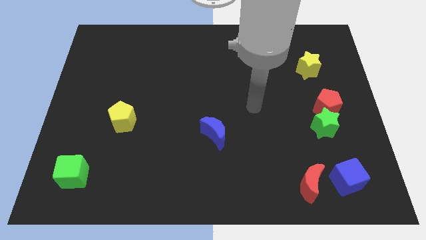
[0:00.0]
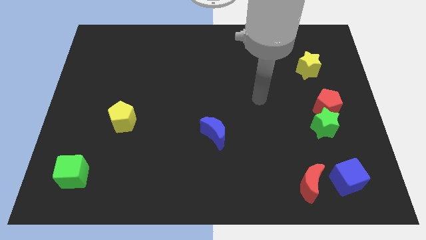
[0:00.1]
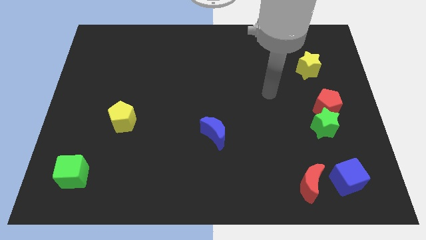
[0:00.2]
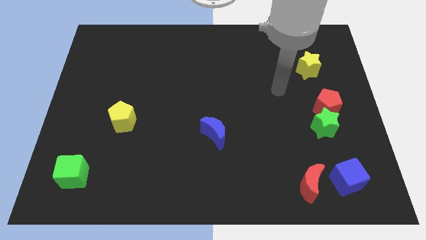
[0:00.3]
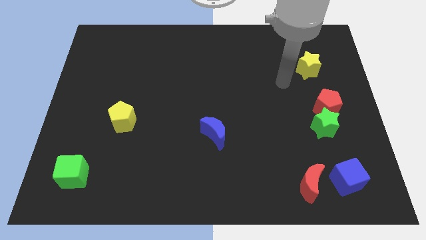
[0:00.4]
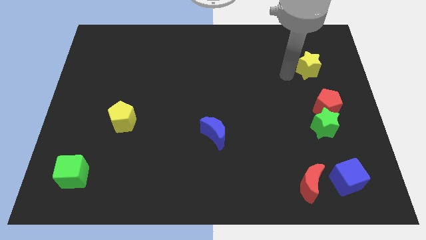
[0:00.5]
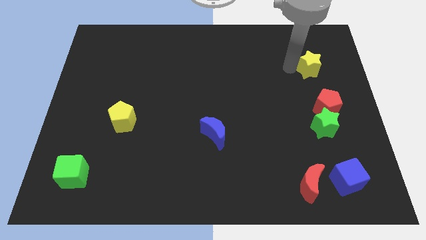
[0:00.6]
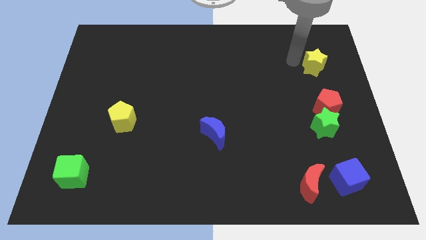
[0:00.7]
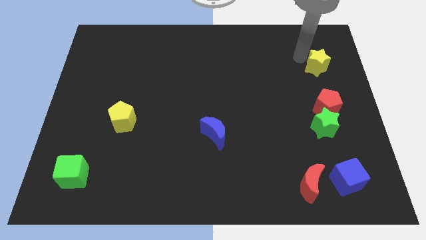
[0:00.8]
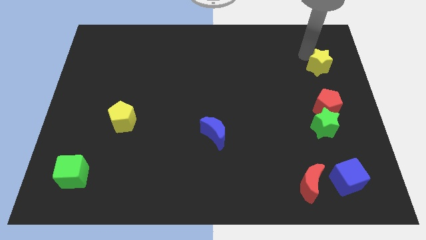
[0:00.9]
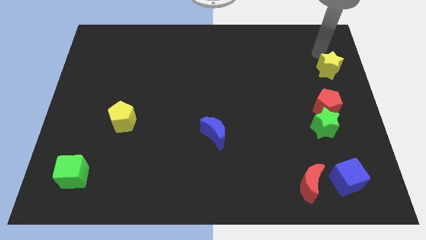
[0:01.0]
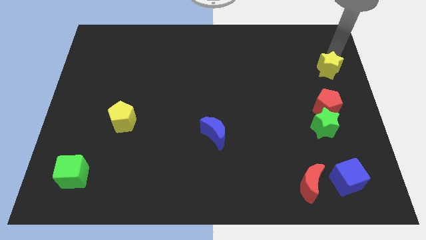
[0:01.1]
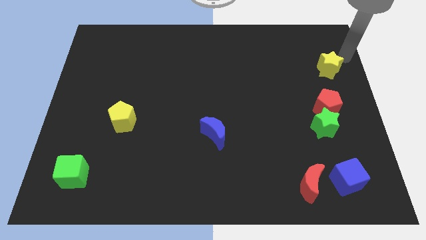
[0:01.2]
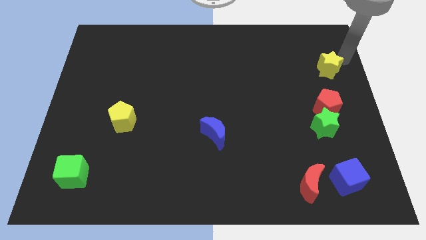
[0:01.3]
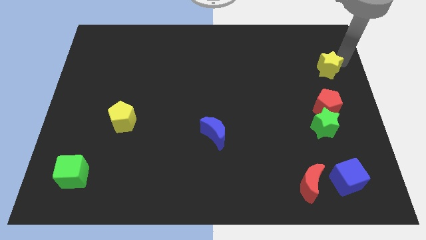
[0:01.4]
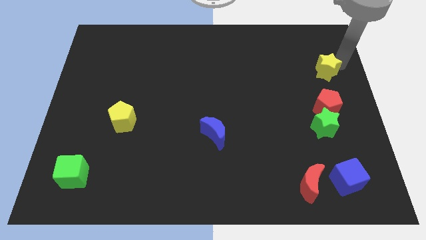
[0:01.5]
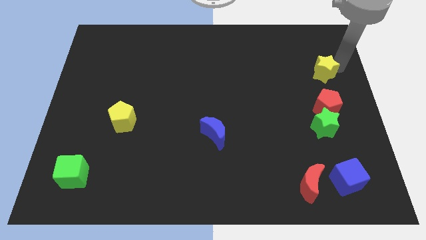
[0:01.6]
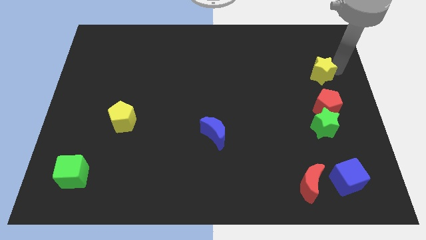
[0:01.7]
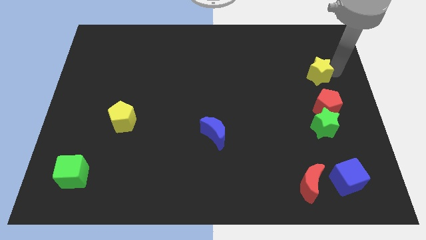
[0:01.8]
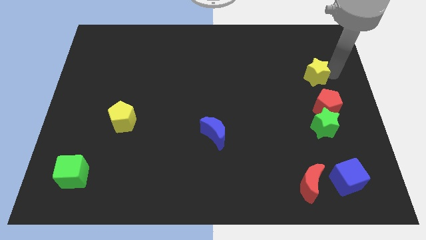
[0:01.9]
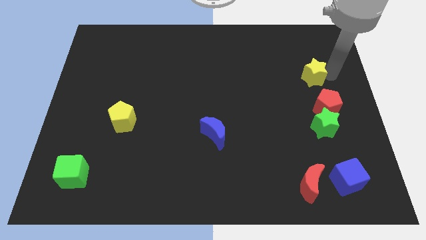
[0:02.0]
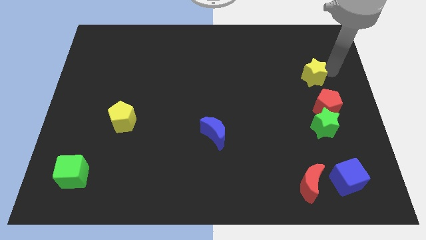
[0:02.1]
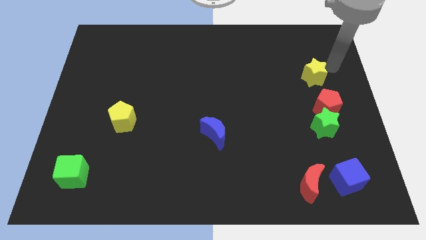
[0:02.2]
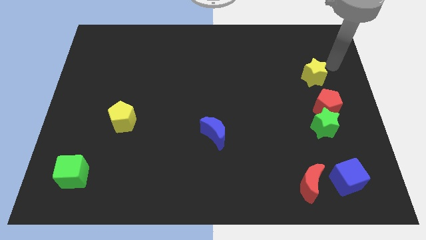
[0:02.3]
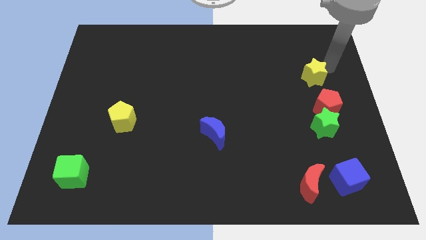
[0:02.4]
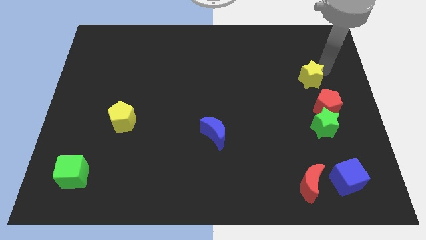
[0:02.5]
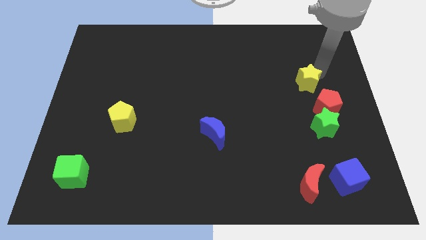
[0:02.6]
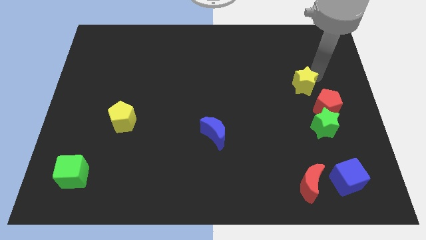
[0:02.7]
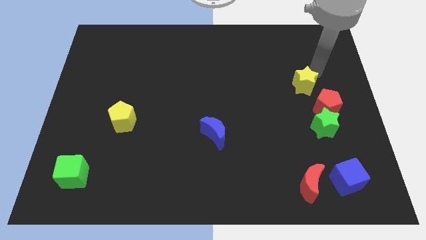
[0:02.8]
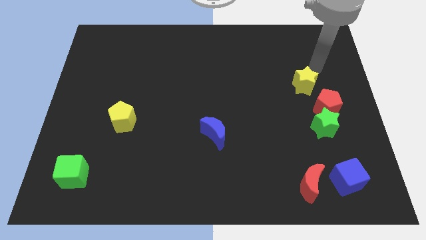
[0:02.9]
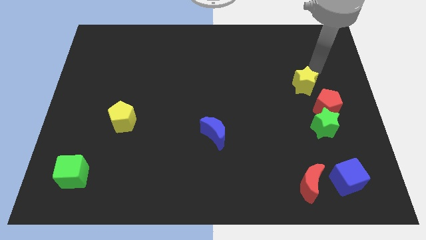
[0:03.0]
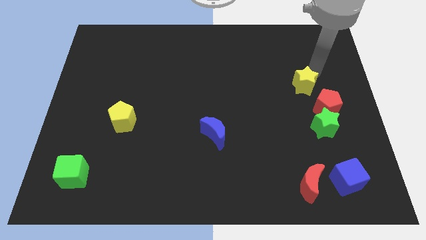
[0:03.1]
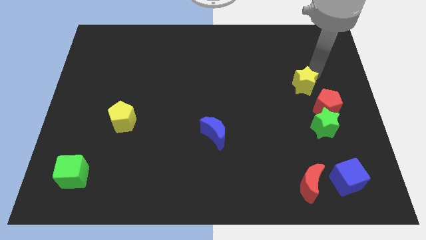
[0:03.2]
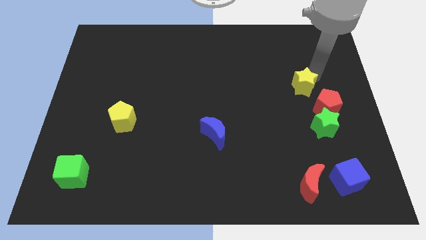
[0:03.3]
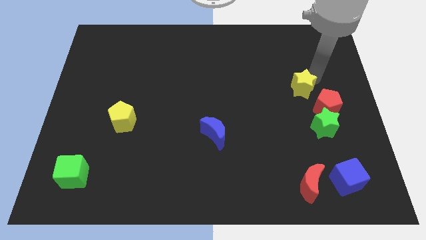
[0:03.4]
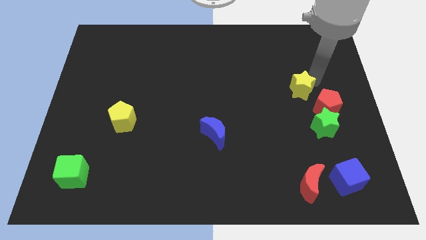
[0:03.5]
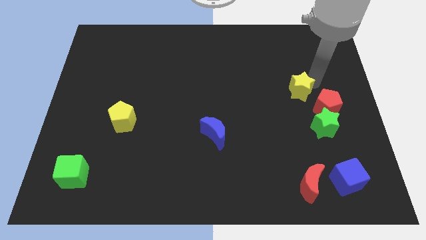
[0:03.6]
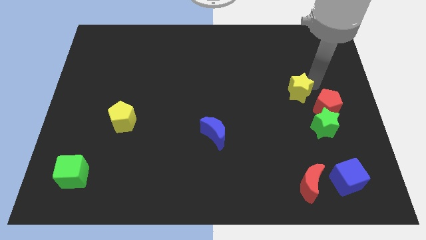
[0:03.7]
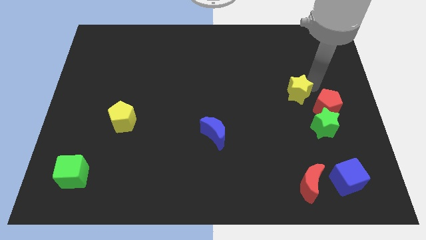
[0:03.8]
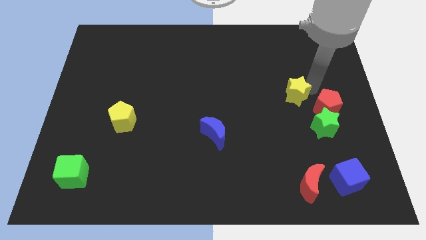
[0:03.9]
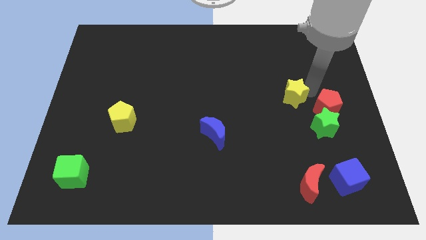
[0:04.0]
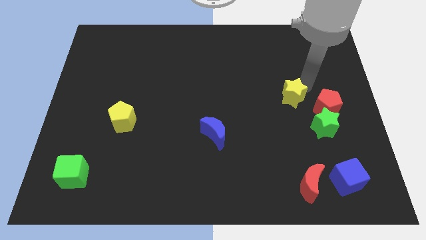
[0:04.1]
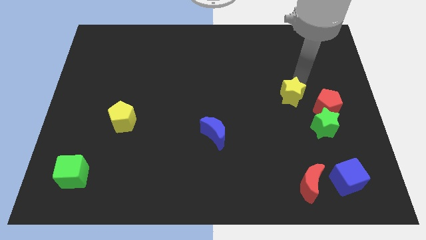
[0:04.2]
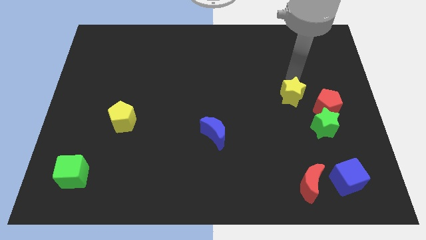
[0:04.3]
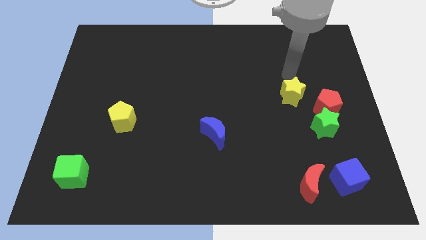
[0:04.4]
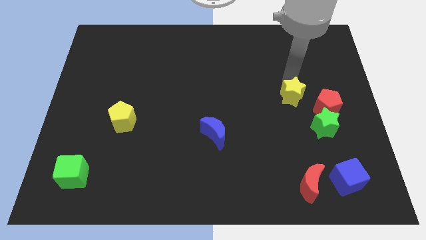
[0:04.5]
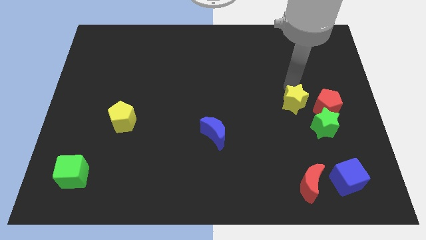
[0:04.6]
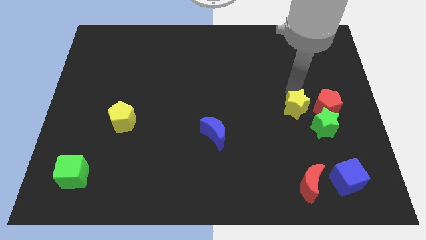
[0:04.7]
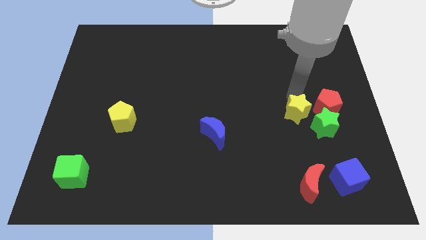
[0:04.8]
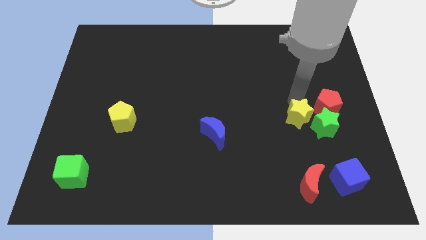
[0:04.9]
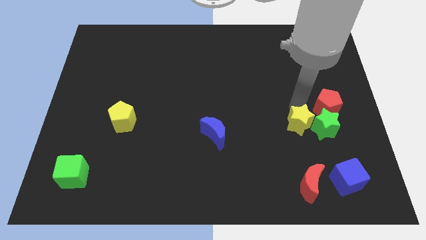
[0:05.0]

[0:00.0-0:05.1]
push the yellow star above the red moon

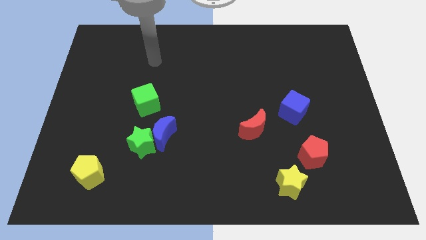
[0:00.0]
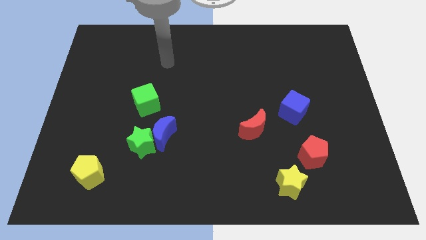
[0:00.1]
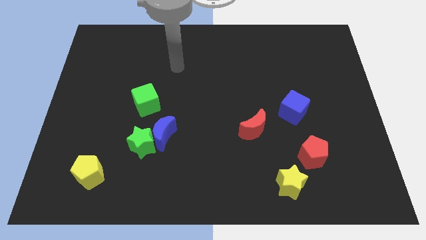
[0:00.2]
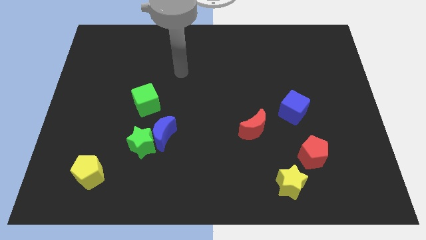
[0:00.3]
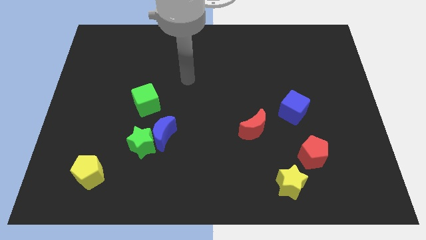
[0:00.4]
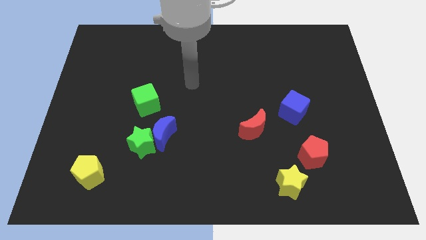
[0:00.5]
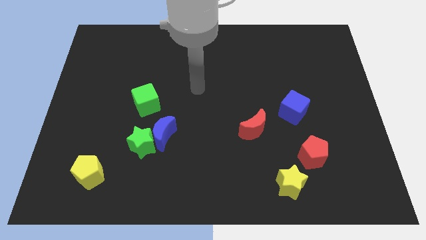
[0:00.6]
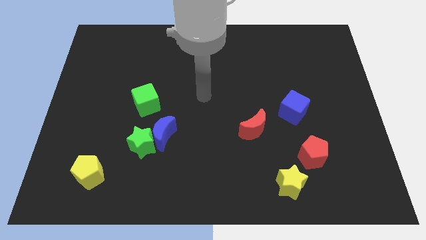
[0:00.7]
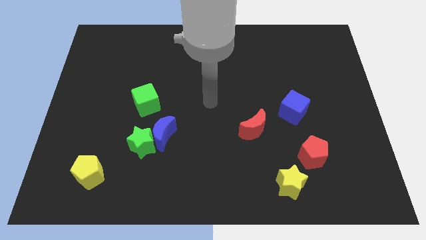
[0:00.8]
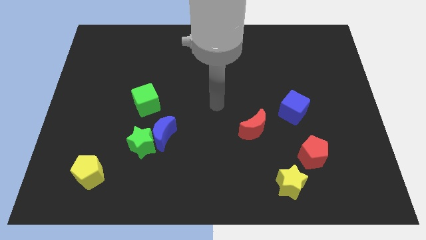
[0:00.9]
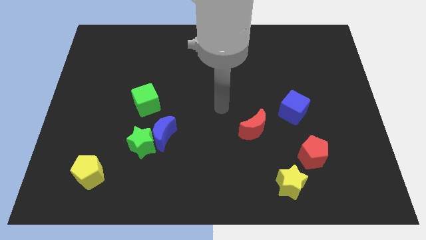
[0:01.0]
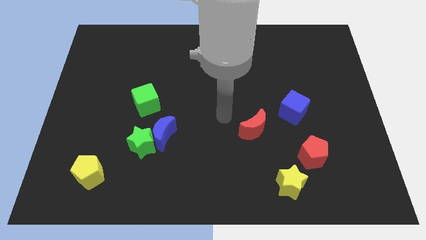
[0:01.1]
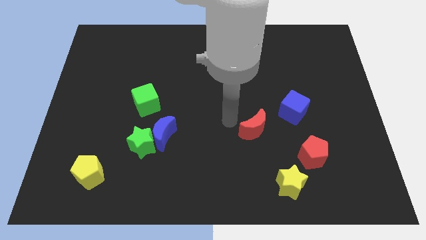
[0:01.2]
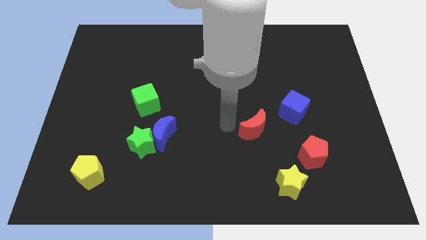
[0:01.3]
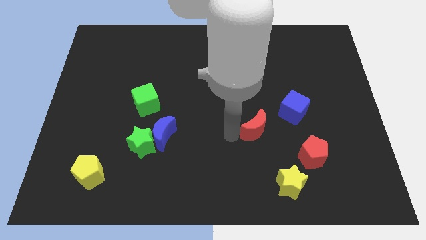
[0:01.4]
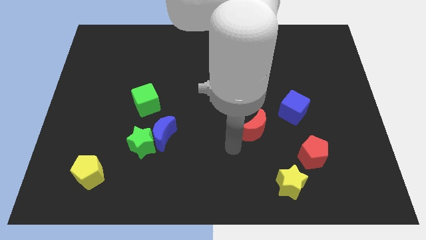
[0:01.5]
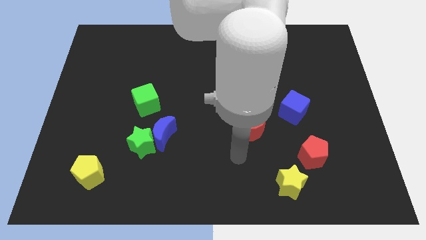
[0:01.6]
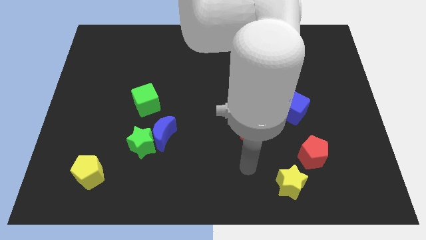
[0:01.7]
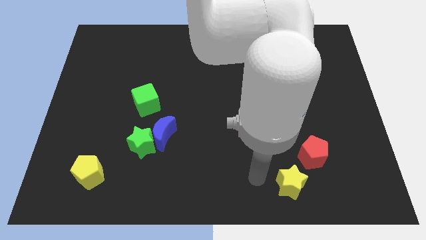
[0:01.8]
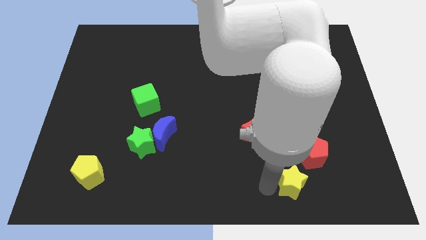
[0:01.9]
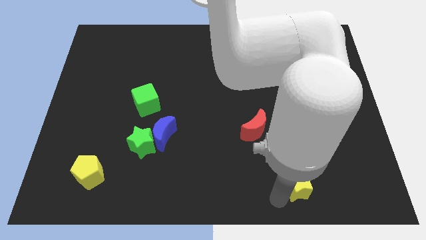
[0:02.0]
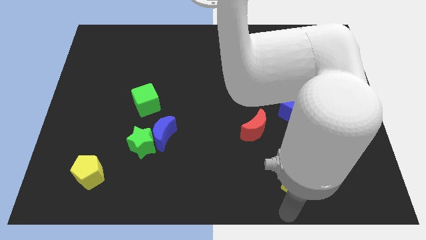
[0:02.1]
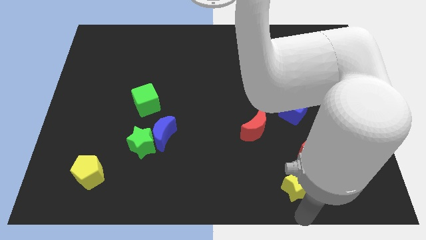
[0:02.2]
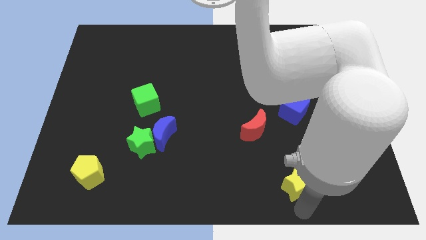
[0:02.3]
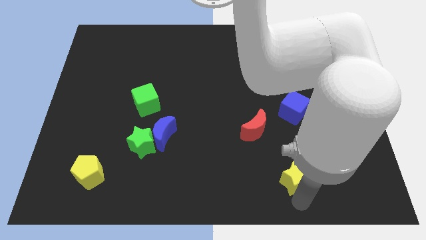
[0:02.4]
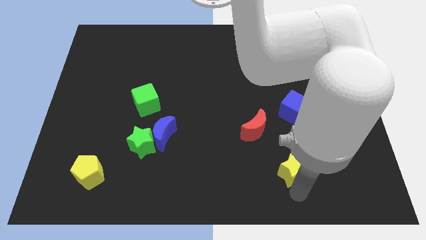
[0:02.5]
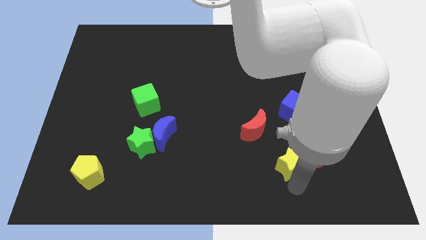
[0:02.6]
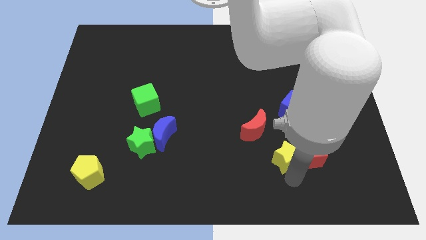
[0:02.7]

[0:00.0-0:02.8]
put the yellow star to the top left side of the red pentagon
